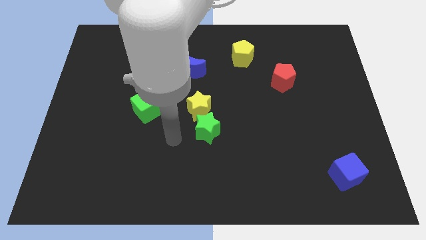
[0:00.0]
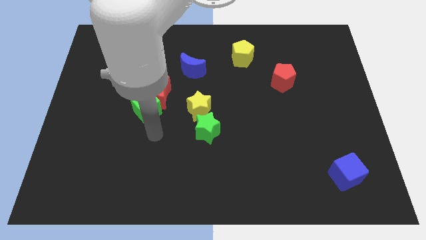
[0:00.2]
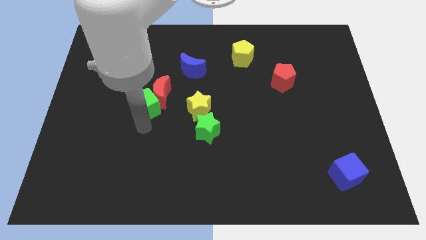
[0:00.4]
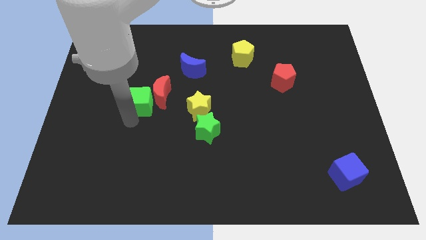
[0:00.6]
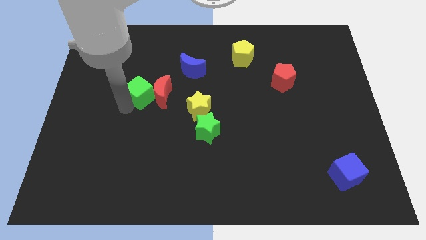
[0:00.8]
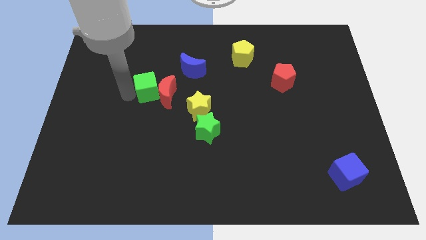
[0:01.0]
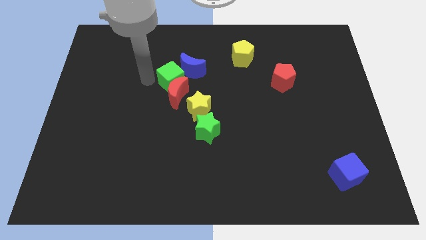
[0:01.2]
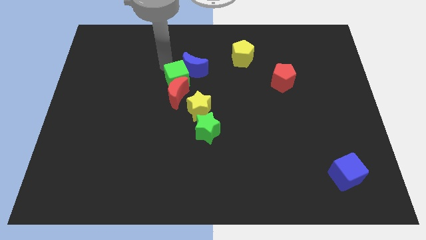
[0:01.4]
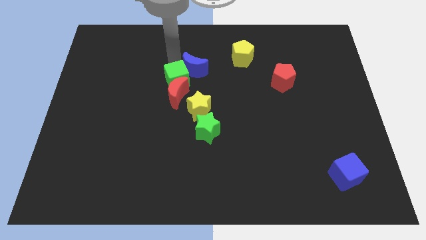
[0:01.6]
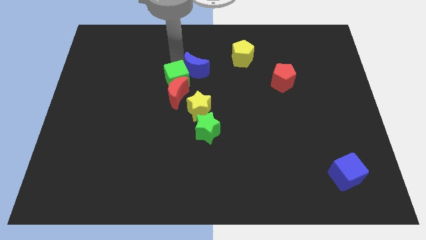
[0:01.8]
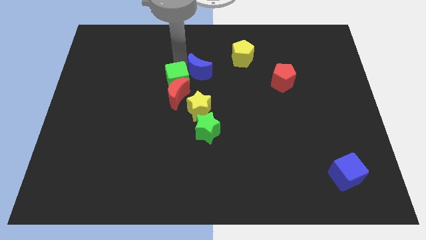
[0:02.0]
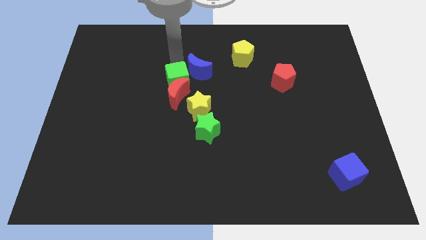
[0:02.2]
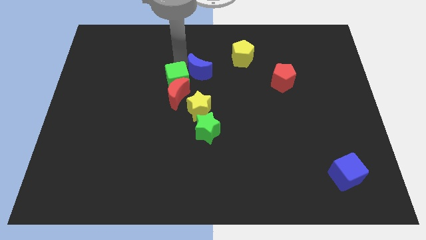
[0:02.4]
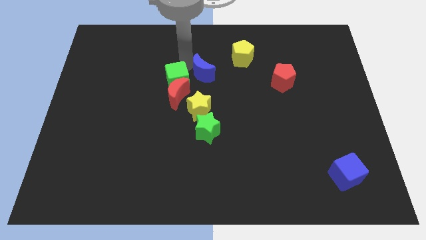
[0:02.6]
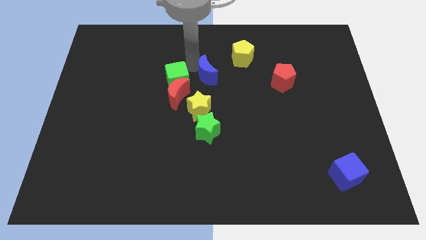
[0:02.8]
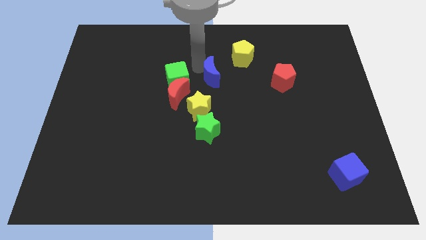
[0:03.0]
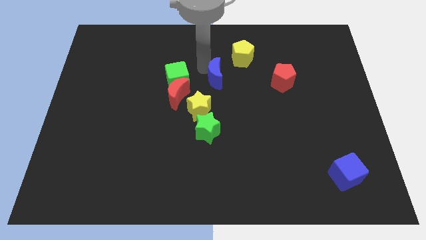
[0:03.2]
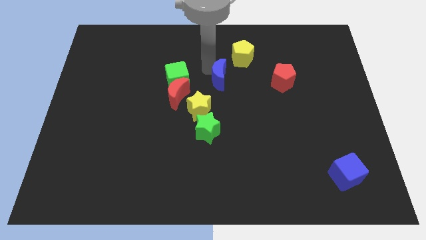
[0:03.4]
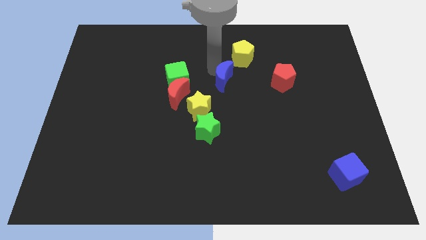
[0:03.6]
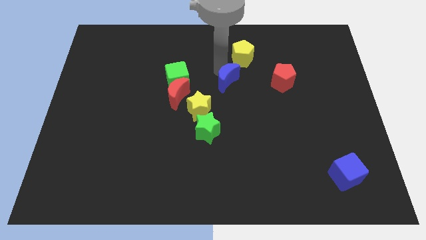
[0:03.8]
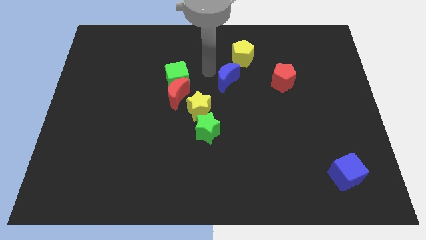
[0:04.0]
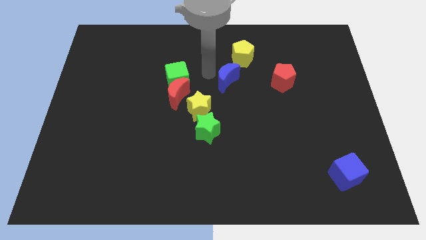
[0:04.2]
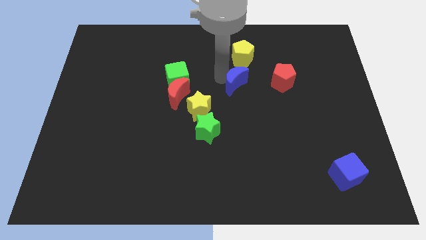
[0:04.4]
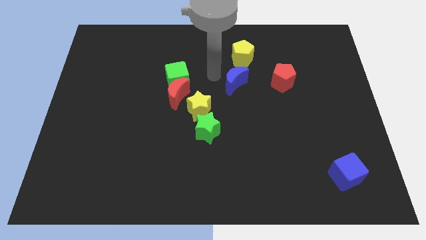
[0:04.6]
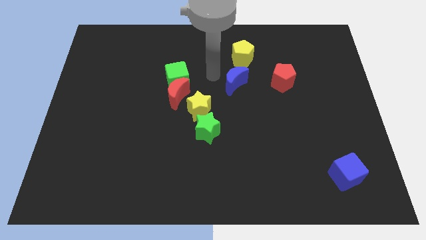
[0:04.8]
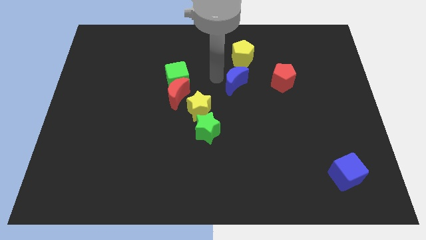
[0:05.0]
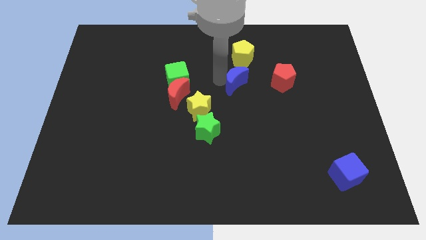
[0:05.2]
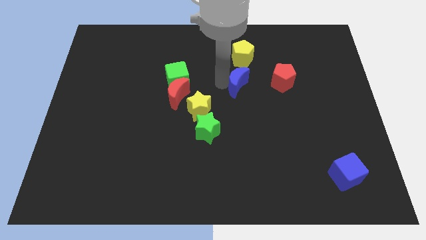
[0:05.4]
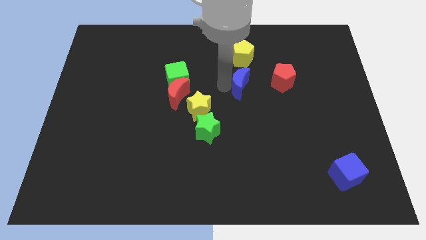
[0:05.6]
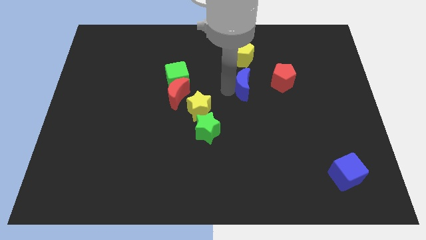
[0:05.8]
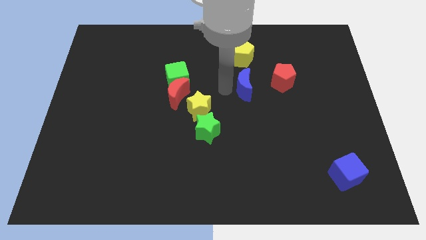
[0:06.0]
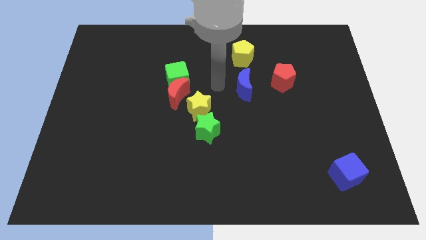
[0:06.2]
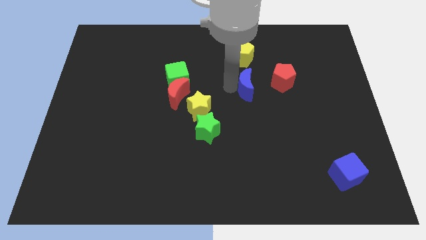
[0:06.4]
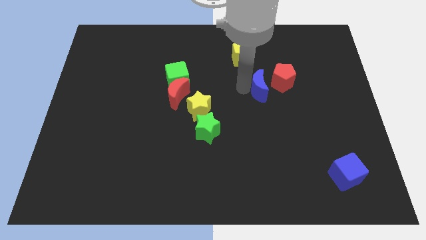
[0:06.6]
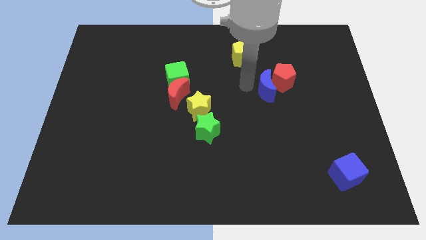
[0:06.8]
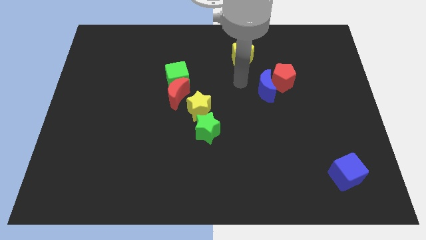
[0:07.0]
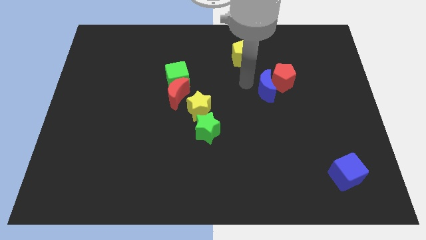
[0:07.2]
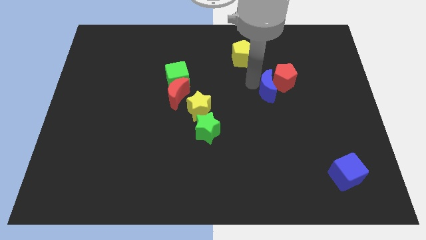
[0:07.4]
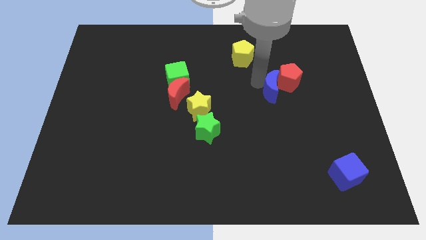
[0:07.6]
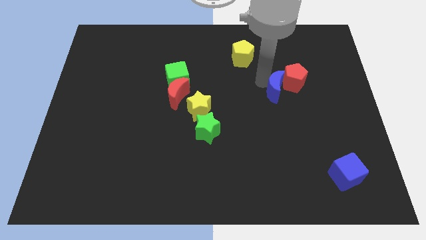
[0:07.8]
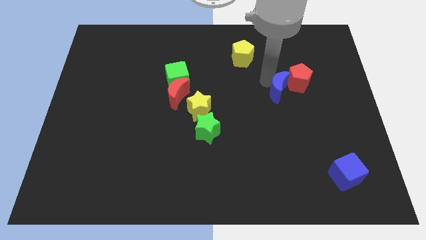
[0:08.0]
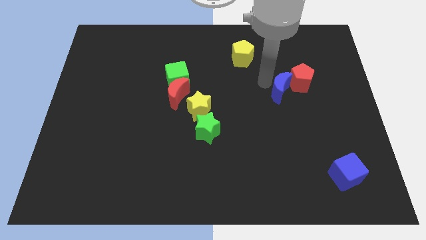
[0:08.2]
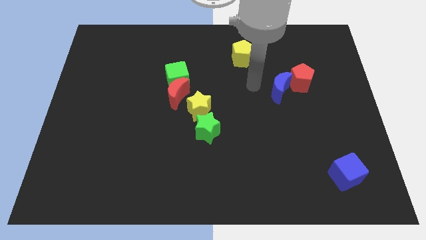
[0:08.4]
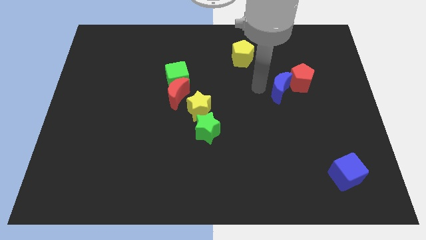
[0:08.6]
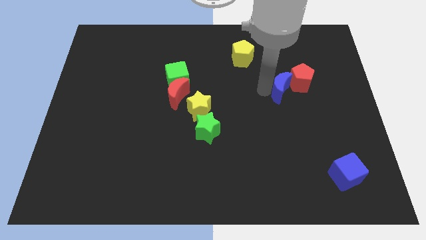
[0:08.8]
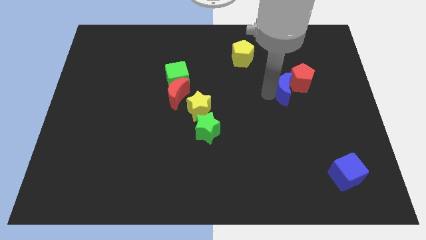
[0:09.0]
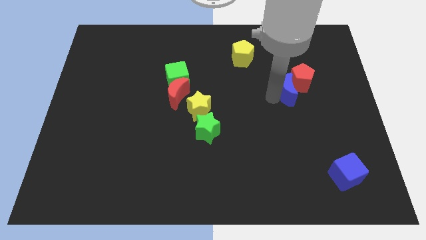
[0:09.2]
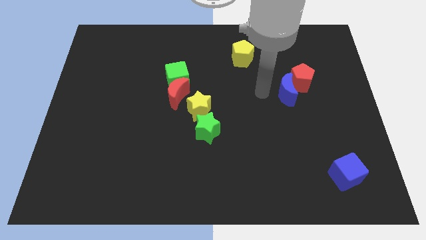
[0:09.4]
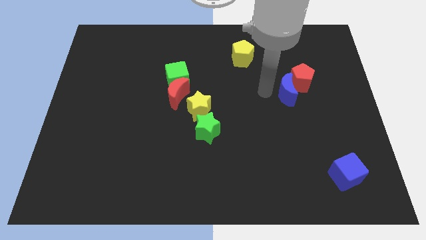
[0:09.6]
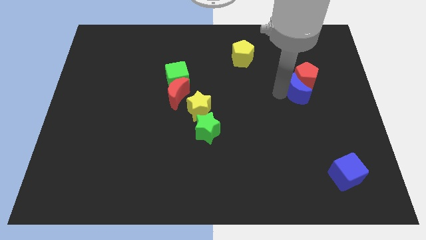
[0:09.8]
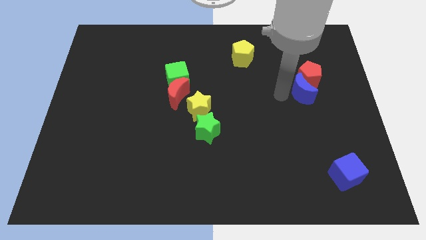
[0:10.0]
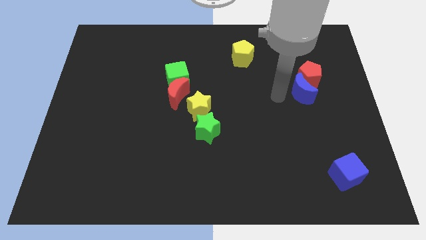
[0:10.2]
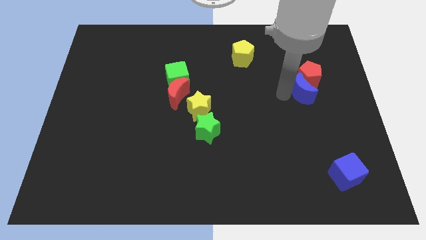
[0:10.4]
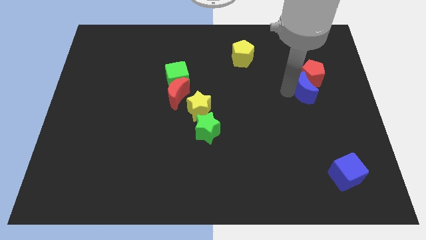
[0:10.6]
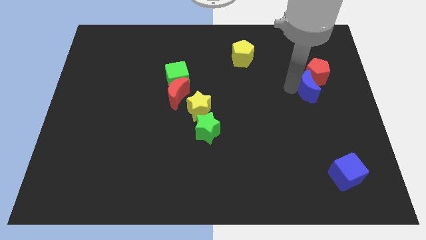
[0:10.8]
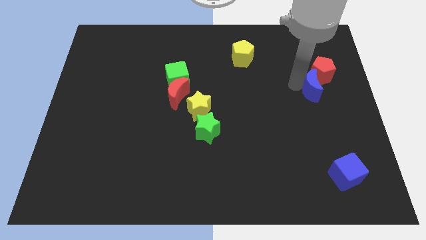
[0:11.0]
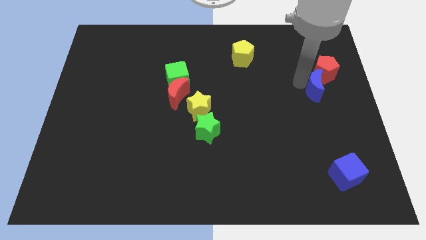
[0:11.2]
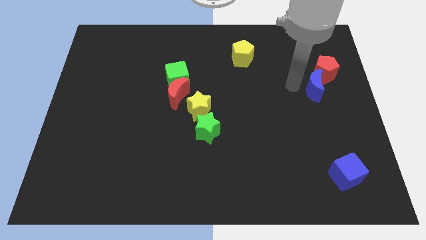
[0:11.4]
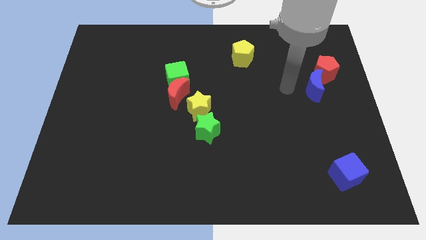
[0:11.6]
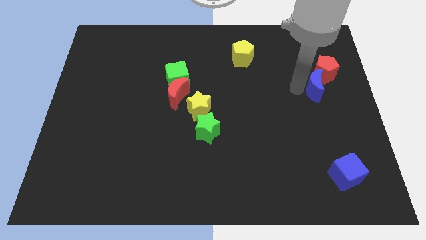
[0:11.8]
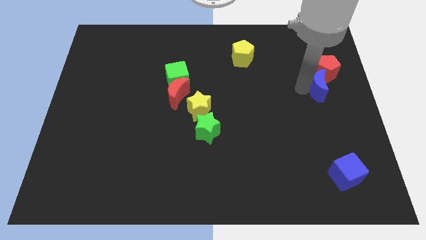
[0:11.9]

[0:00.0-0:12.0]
move the blue moon to the right side of the board
